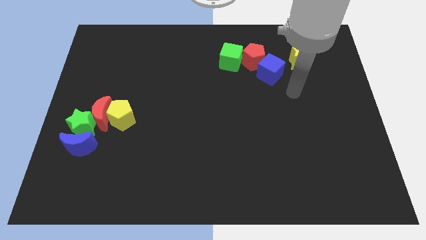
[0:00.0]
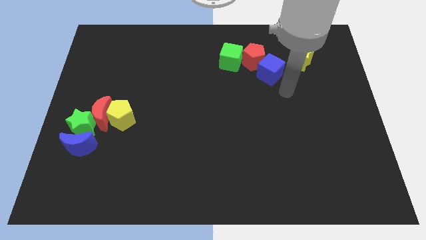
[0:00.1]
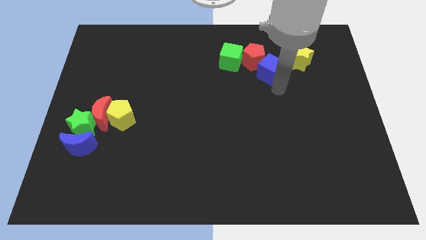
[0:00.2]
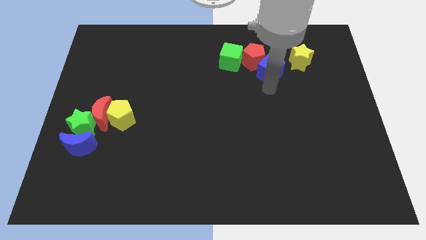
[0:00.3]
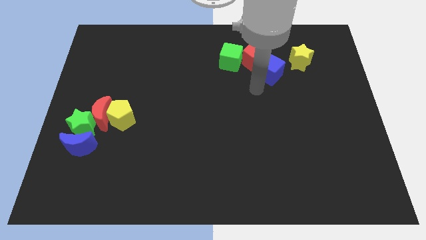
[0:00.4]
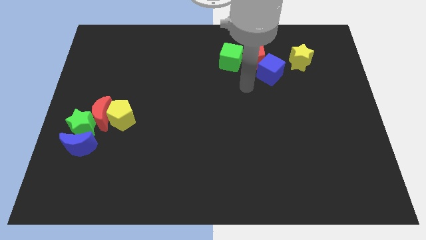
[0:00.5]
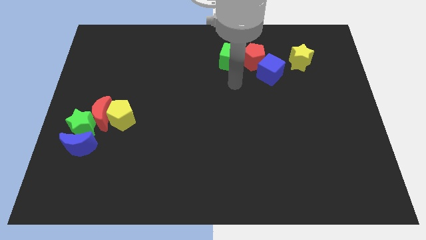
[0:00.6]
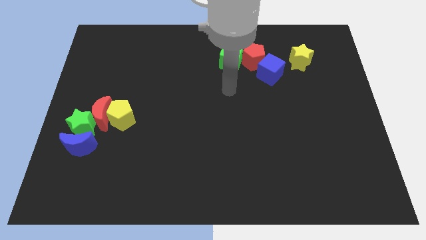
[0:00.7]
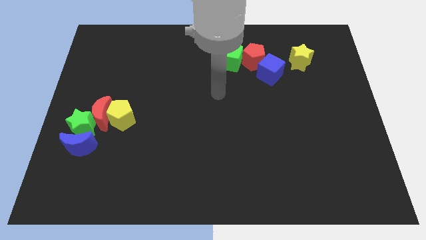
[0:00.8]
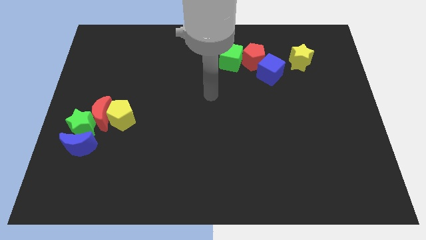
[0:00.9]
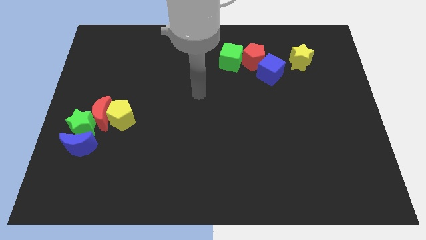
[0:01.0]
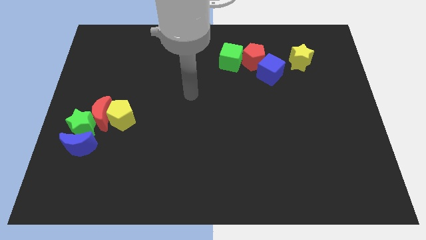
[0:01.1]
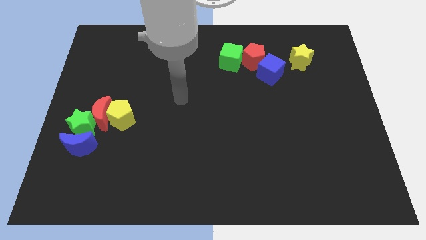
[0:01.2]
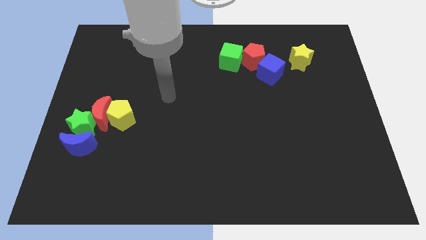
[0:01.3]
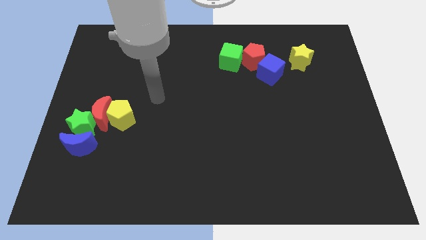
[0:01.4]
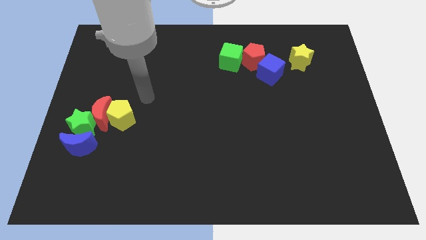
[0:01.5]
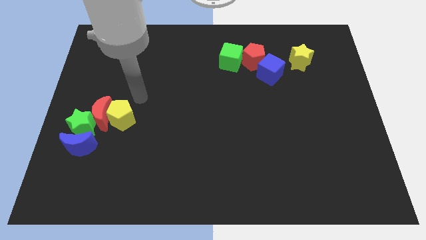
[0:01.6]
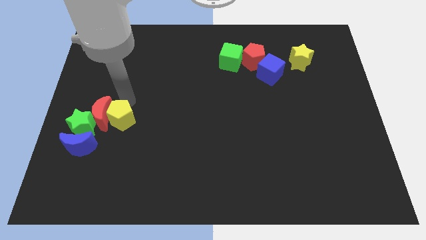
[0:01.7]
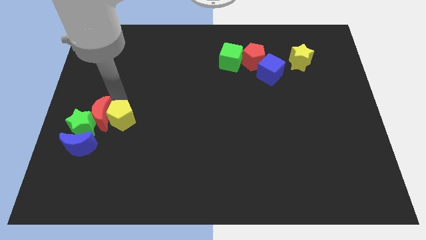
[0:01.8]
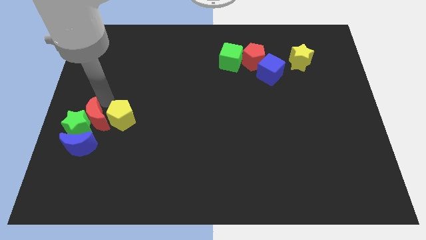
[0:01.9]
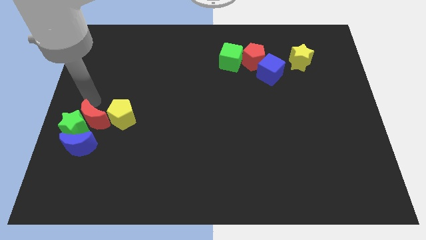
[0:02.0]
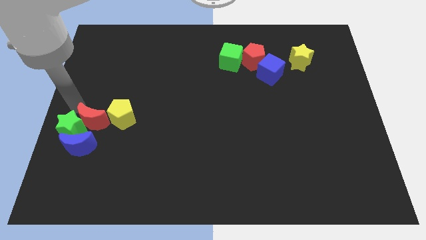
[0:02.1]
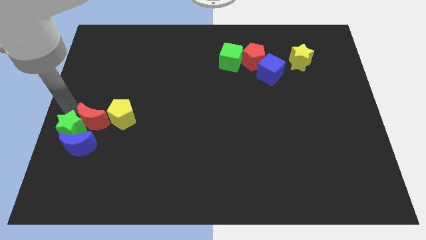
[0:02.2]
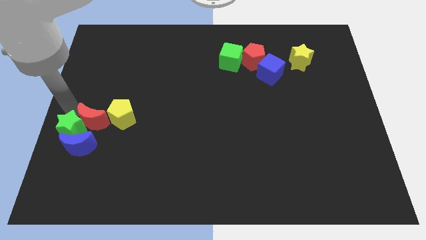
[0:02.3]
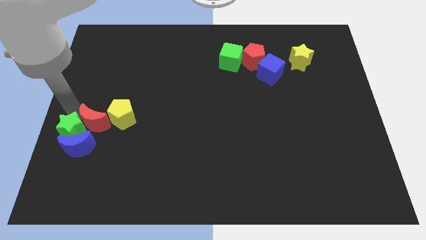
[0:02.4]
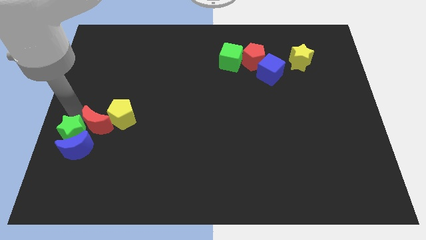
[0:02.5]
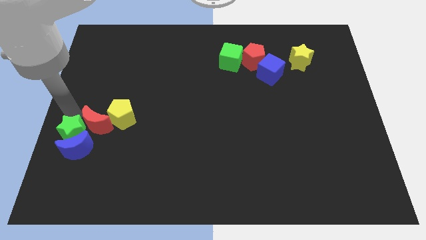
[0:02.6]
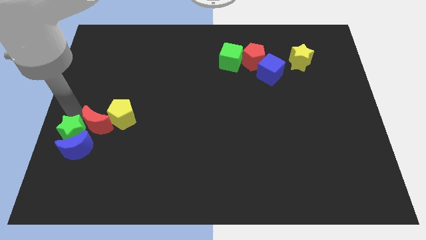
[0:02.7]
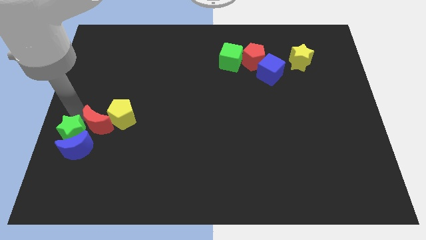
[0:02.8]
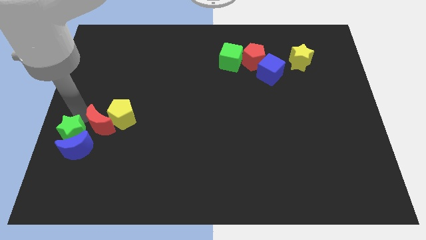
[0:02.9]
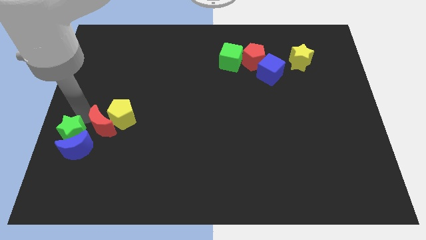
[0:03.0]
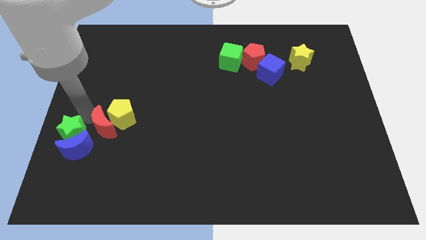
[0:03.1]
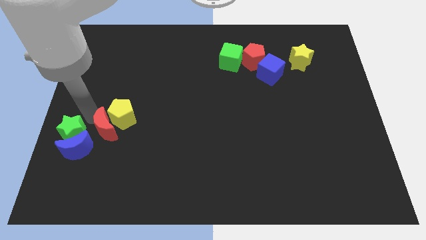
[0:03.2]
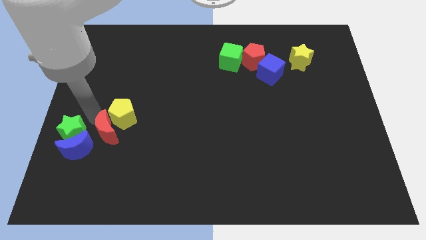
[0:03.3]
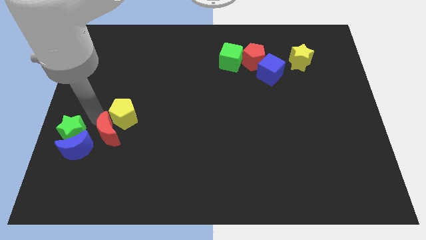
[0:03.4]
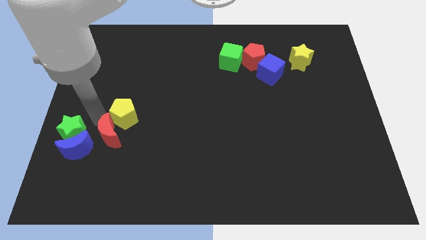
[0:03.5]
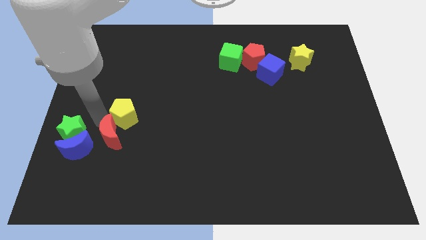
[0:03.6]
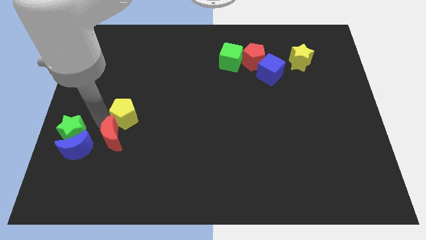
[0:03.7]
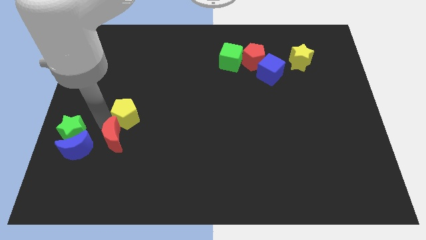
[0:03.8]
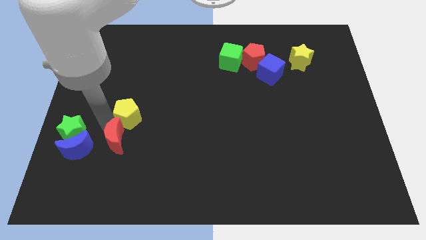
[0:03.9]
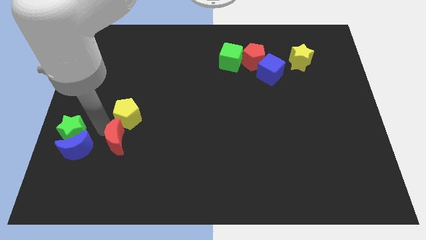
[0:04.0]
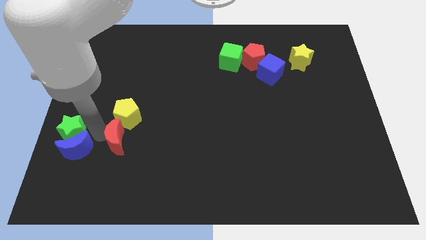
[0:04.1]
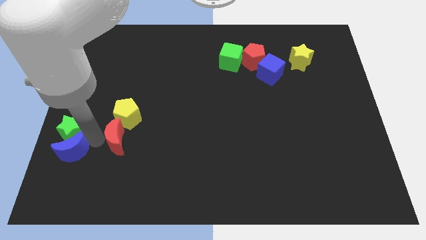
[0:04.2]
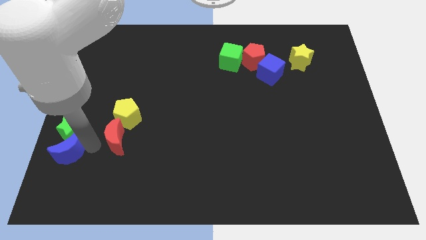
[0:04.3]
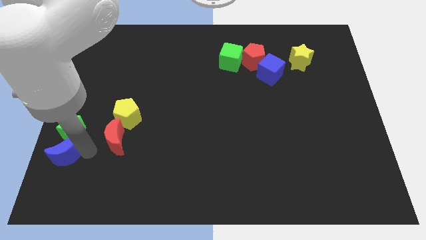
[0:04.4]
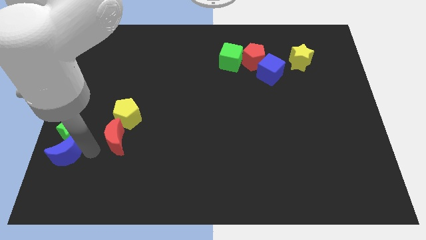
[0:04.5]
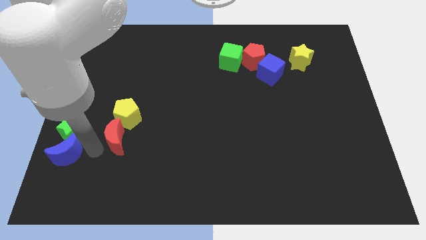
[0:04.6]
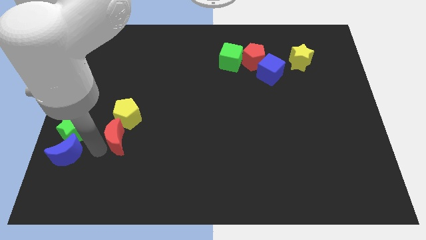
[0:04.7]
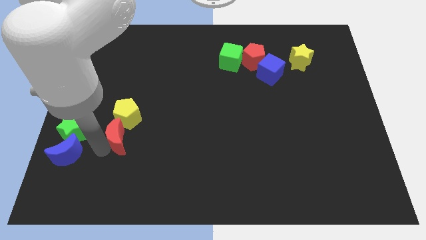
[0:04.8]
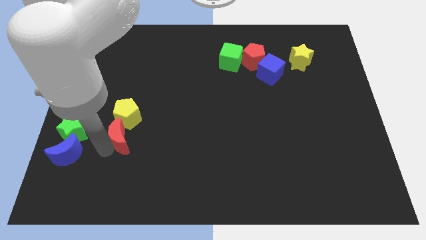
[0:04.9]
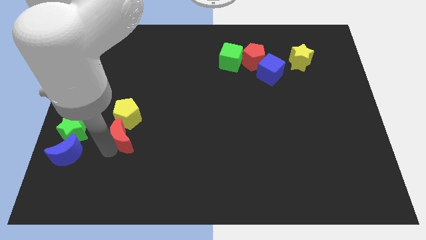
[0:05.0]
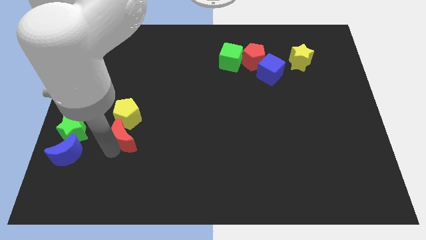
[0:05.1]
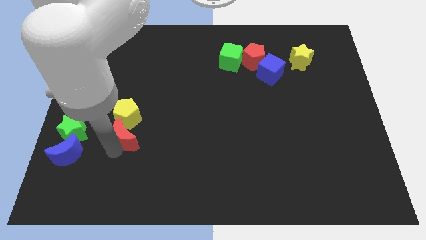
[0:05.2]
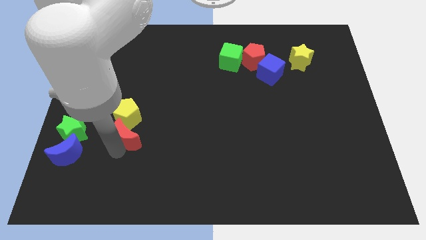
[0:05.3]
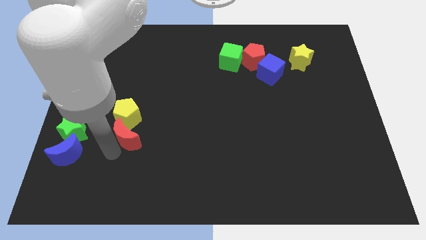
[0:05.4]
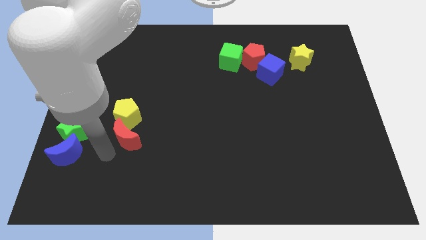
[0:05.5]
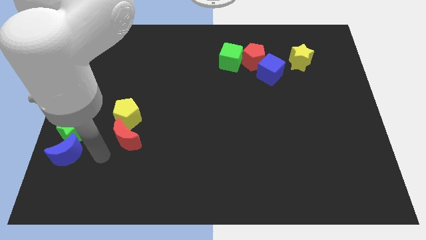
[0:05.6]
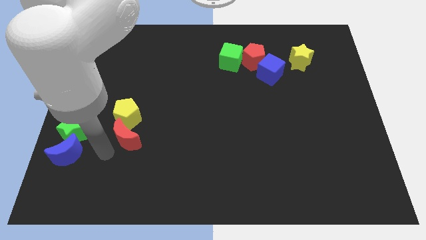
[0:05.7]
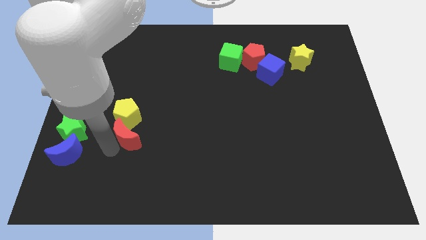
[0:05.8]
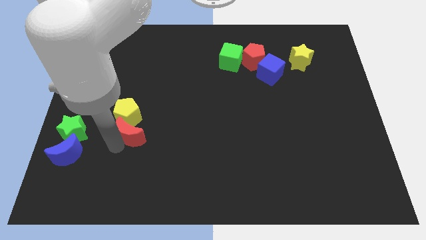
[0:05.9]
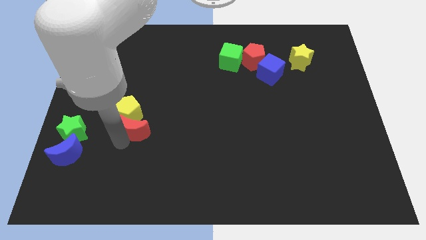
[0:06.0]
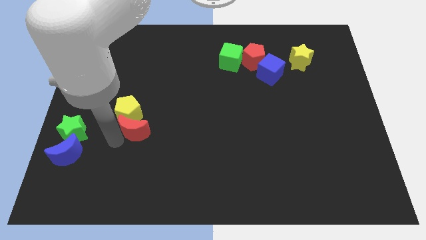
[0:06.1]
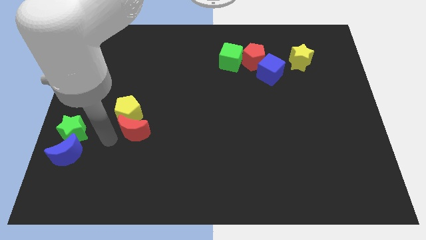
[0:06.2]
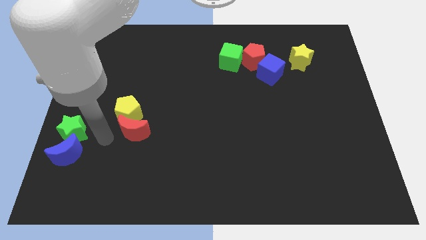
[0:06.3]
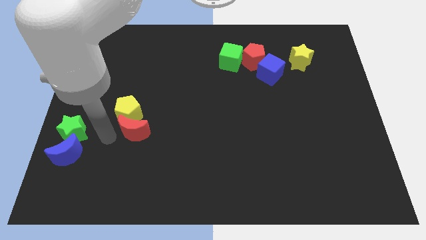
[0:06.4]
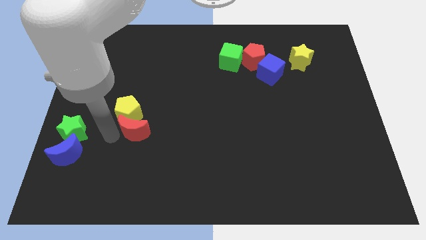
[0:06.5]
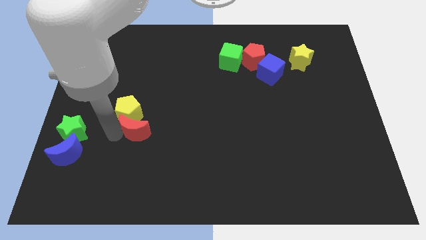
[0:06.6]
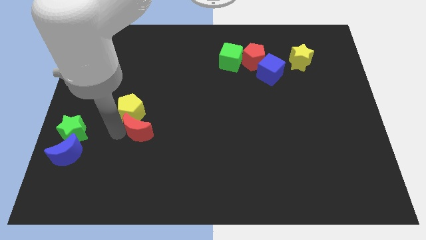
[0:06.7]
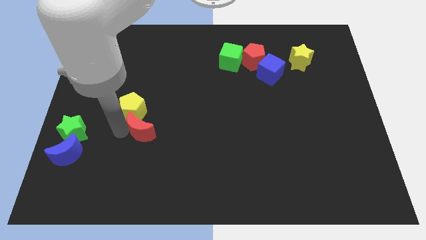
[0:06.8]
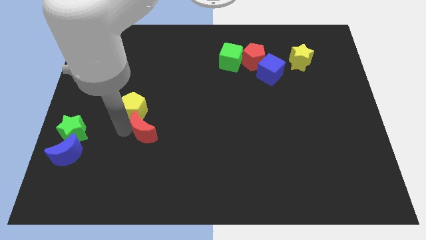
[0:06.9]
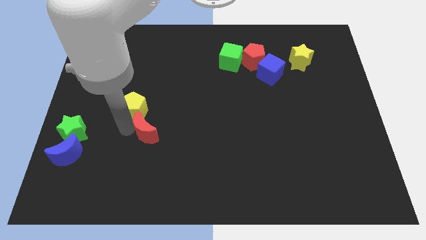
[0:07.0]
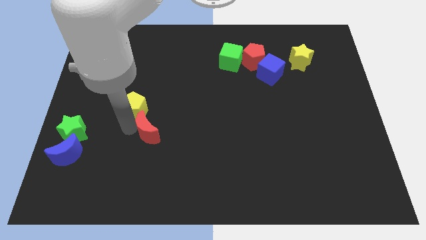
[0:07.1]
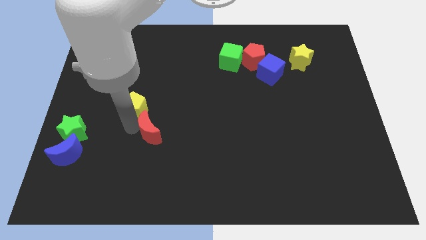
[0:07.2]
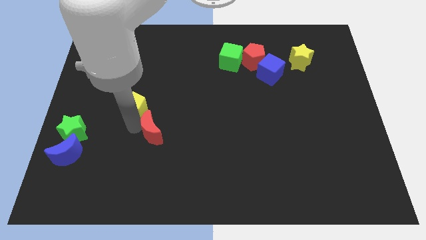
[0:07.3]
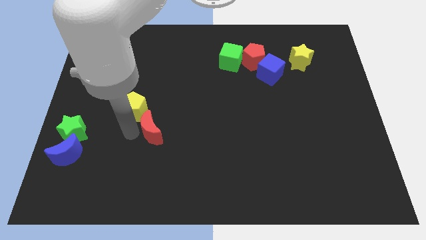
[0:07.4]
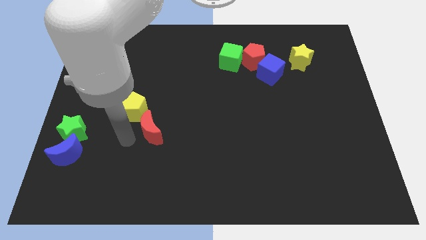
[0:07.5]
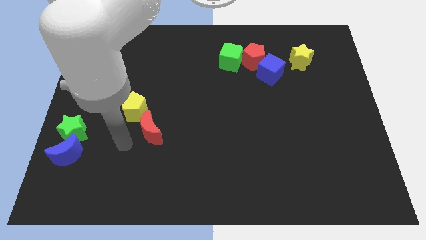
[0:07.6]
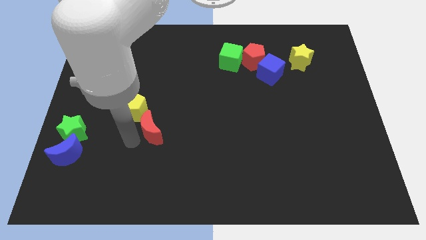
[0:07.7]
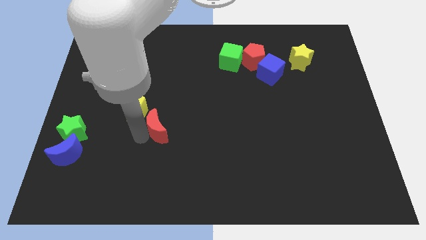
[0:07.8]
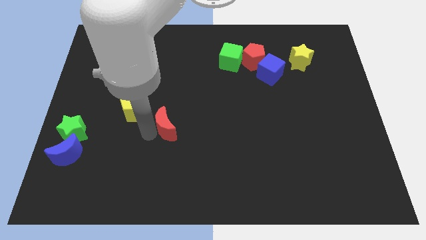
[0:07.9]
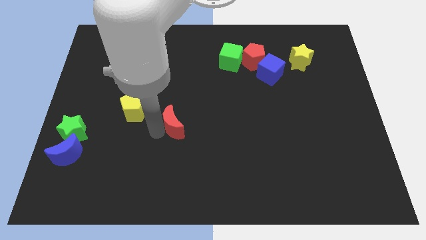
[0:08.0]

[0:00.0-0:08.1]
slide the red moon to the middle of the board
